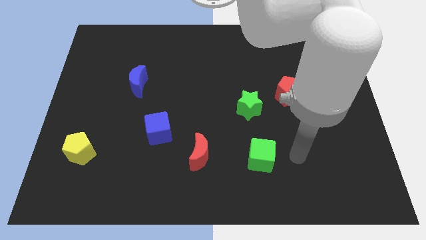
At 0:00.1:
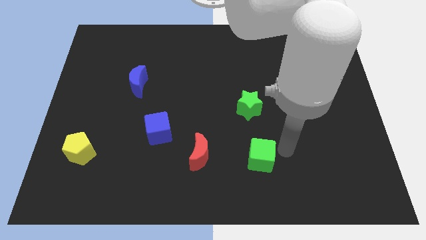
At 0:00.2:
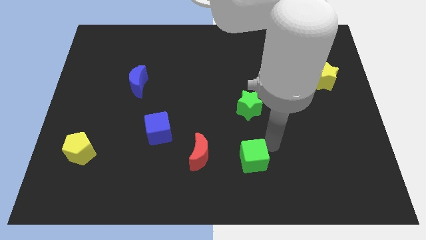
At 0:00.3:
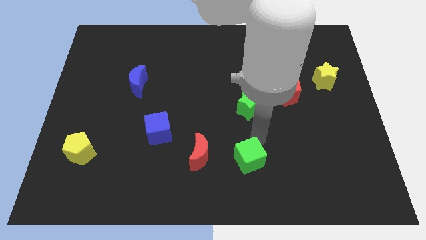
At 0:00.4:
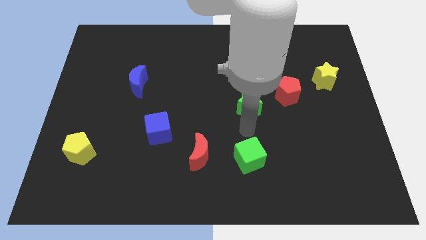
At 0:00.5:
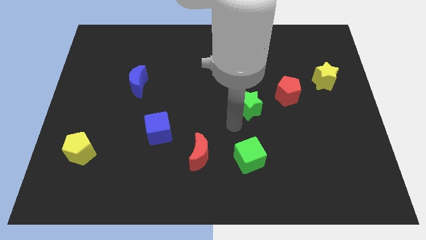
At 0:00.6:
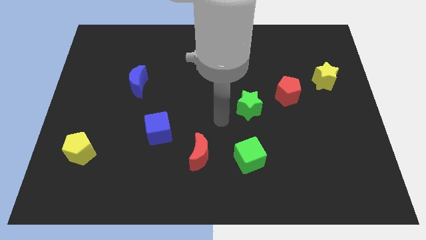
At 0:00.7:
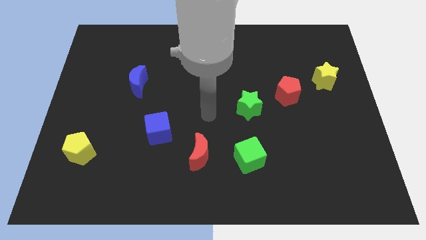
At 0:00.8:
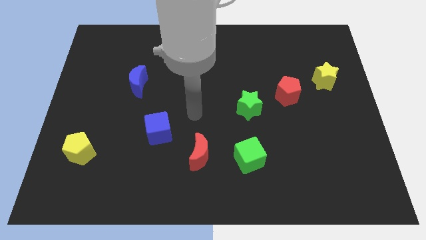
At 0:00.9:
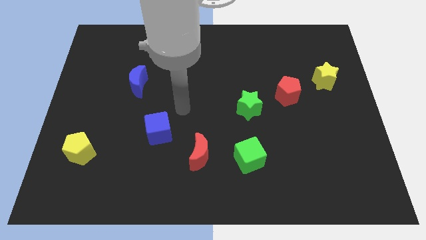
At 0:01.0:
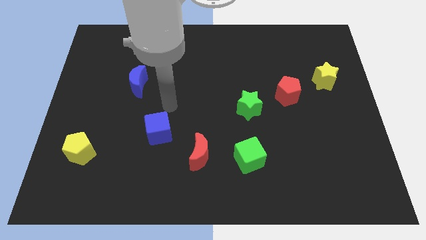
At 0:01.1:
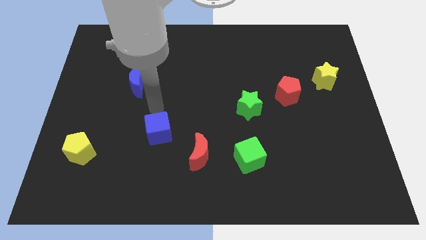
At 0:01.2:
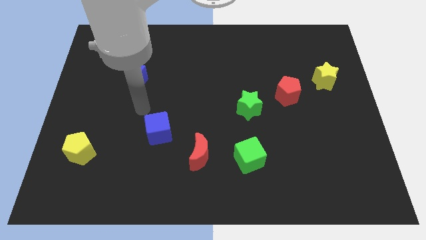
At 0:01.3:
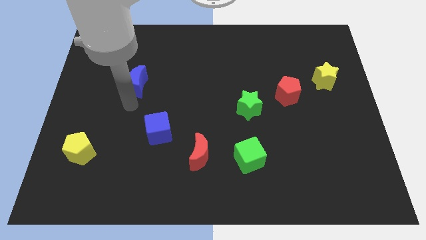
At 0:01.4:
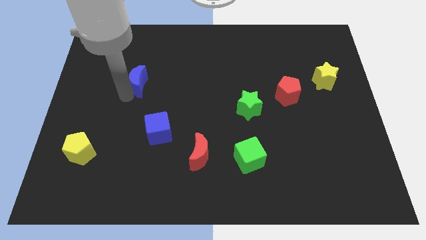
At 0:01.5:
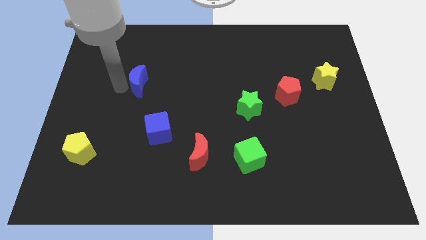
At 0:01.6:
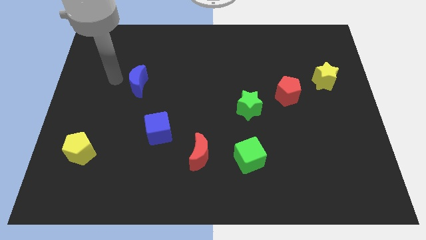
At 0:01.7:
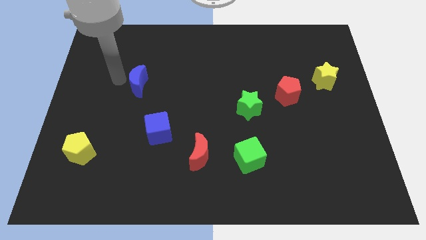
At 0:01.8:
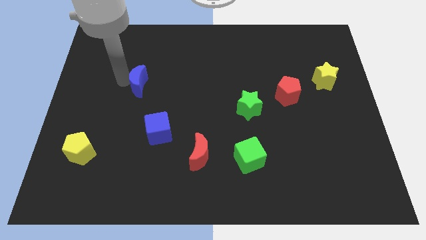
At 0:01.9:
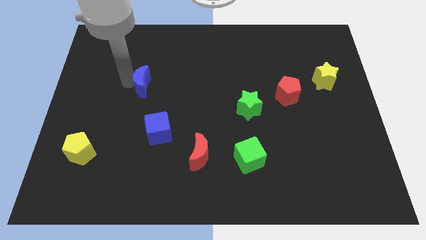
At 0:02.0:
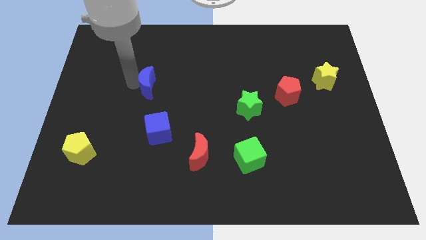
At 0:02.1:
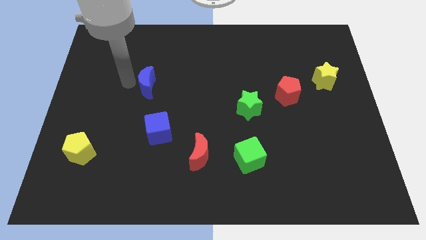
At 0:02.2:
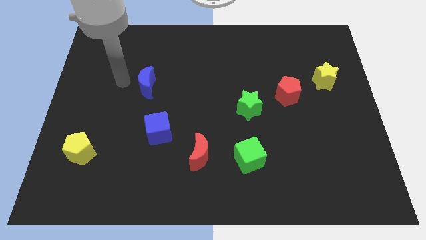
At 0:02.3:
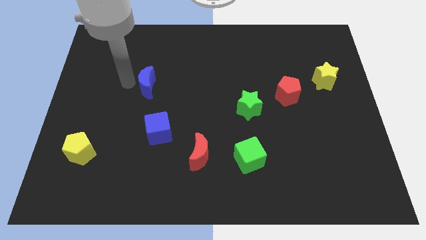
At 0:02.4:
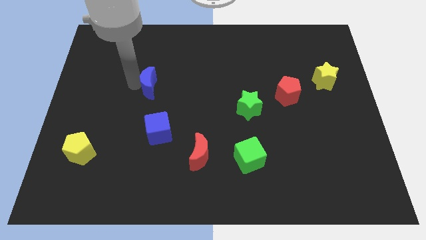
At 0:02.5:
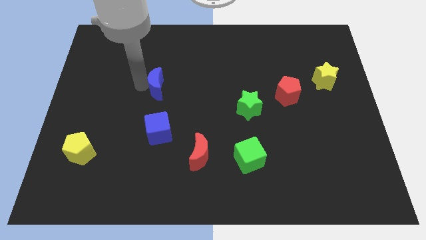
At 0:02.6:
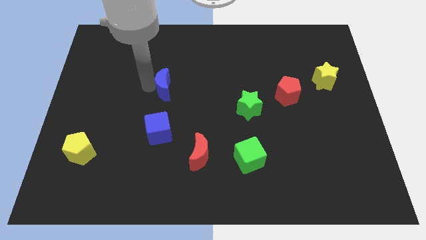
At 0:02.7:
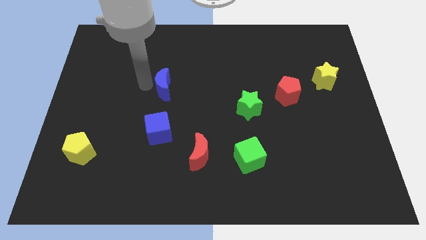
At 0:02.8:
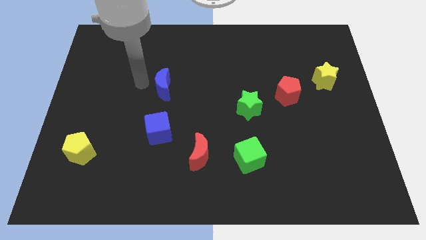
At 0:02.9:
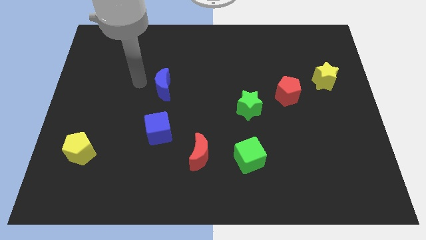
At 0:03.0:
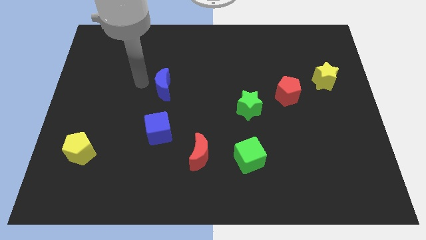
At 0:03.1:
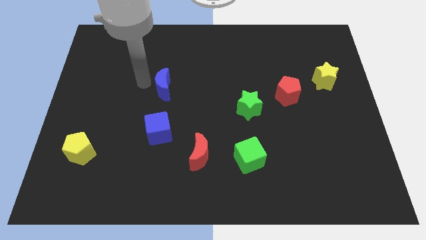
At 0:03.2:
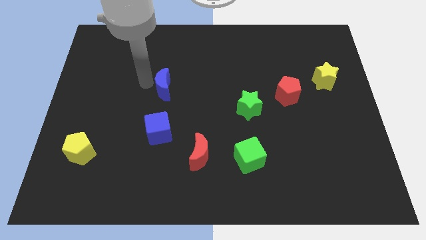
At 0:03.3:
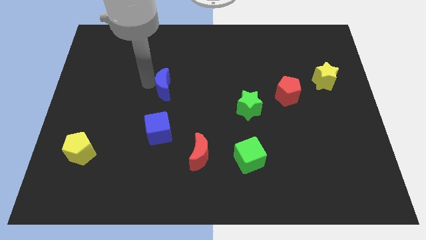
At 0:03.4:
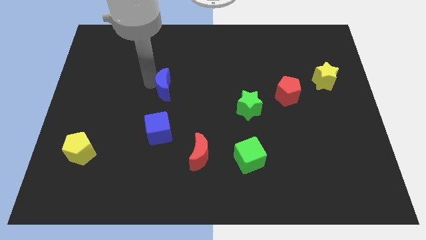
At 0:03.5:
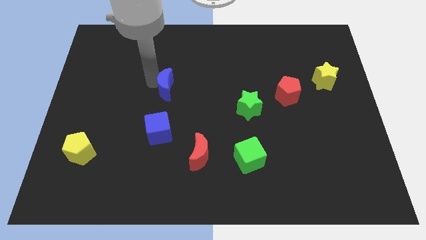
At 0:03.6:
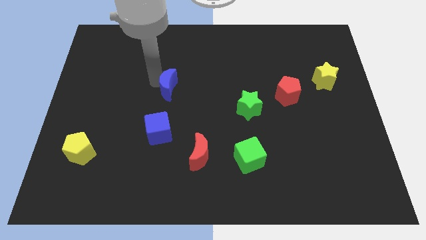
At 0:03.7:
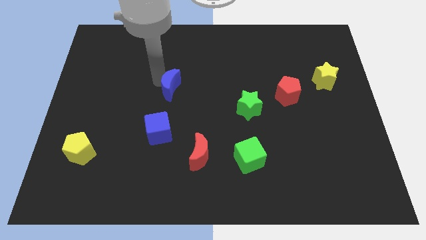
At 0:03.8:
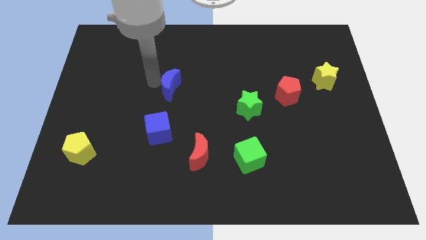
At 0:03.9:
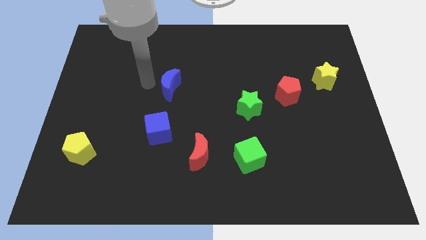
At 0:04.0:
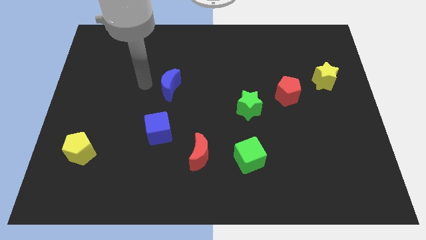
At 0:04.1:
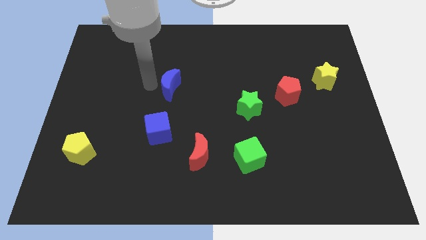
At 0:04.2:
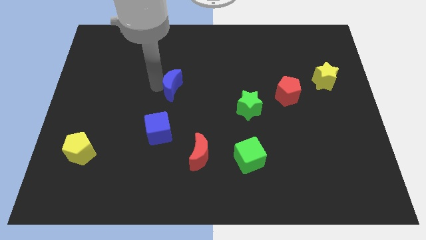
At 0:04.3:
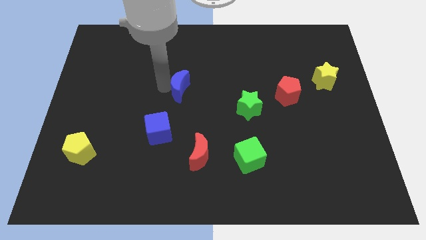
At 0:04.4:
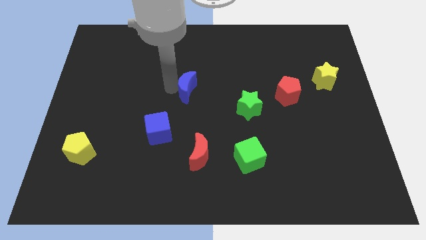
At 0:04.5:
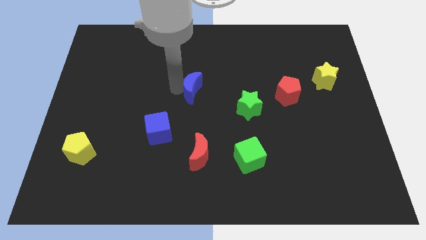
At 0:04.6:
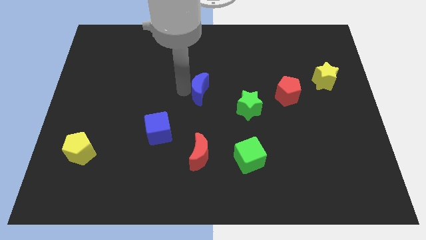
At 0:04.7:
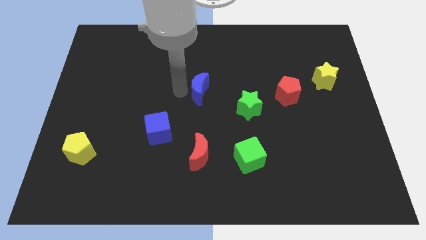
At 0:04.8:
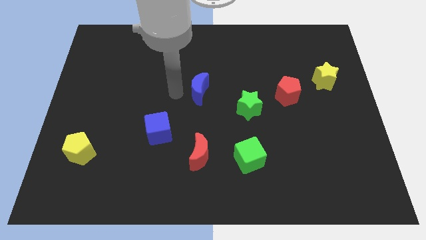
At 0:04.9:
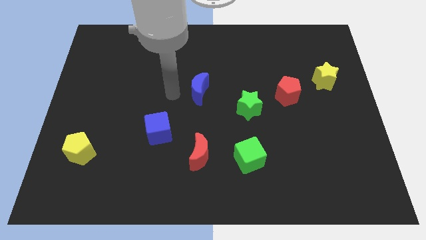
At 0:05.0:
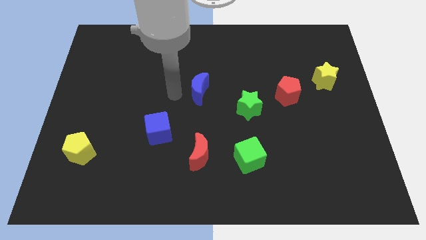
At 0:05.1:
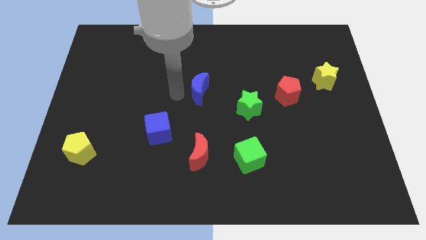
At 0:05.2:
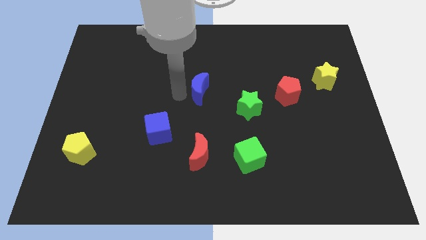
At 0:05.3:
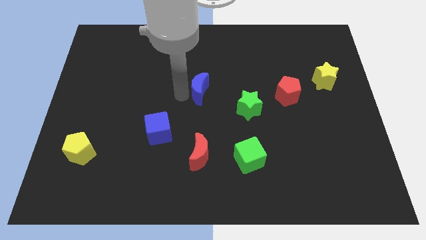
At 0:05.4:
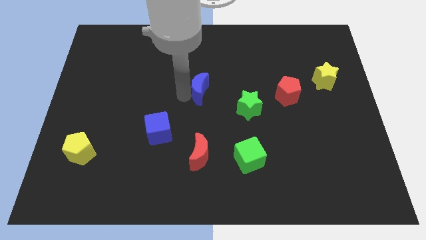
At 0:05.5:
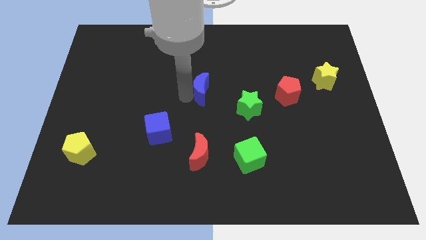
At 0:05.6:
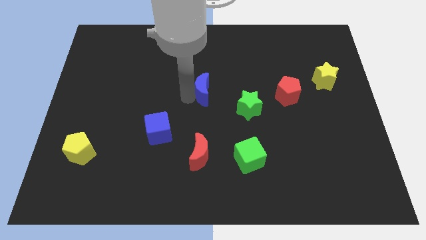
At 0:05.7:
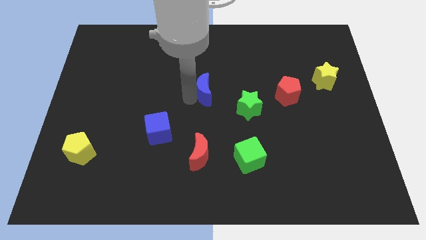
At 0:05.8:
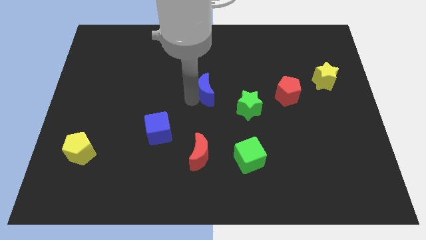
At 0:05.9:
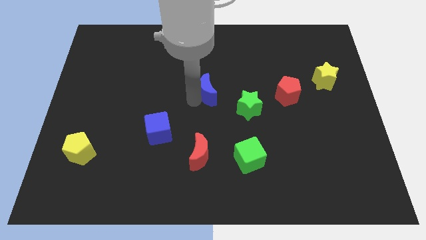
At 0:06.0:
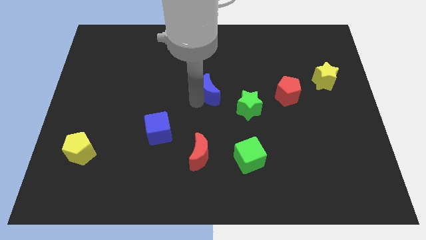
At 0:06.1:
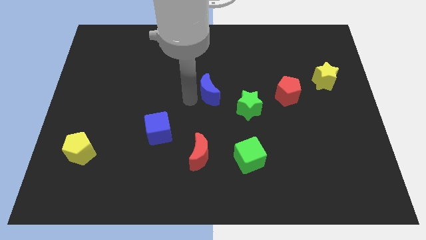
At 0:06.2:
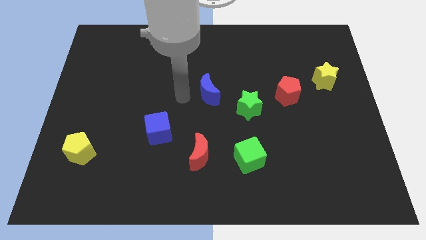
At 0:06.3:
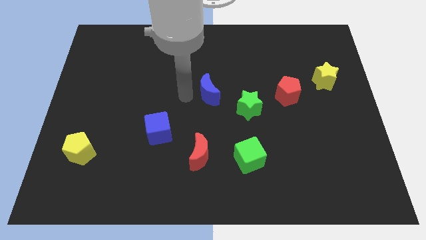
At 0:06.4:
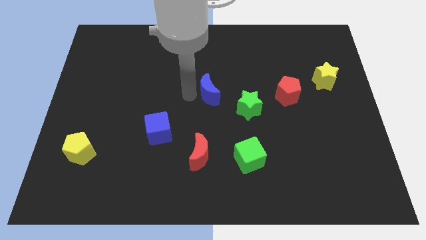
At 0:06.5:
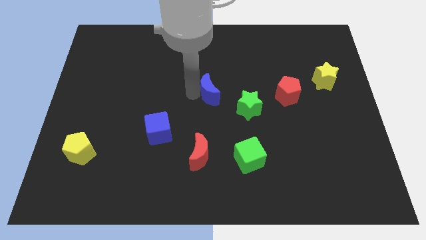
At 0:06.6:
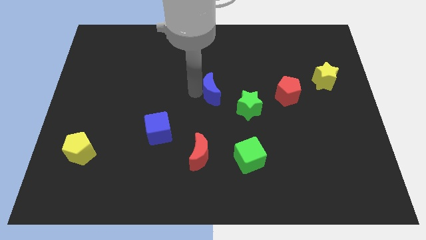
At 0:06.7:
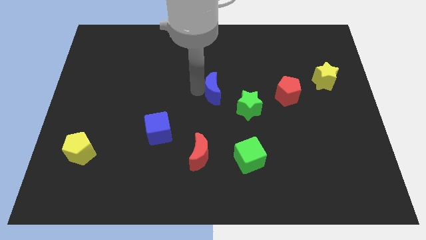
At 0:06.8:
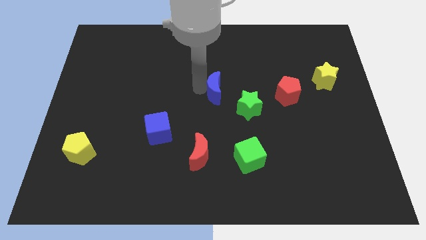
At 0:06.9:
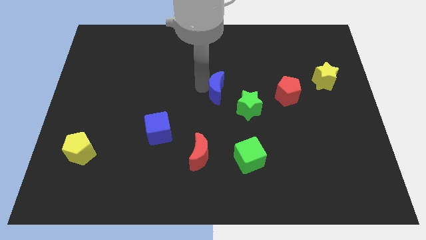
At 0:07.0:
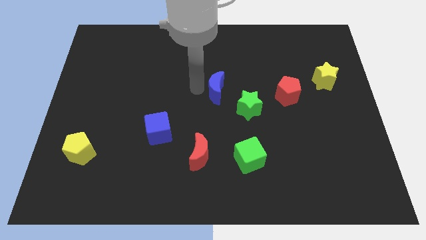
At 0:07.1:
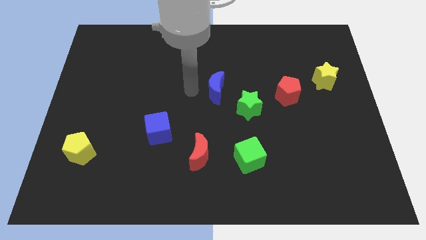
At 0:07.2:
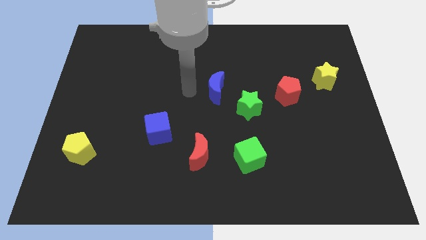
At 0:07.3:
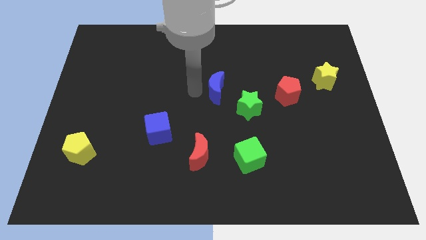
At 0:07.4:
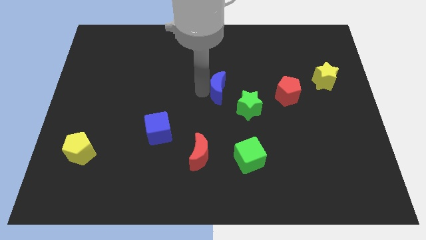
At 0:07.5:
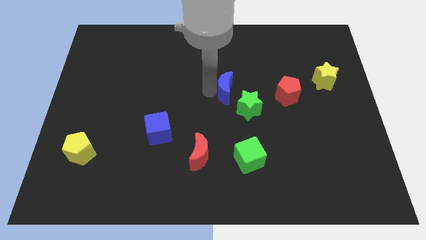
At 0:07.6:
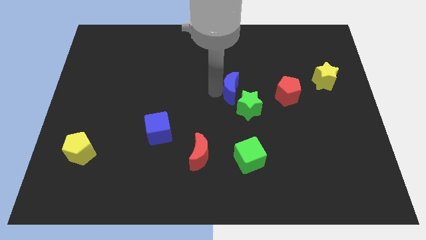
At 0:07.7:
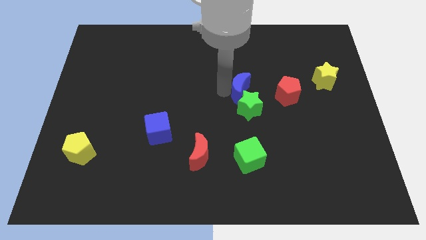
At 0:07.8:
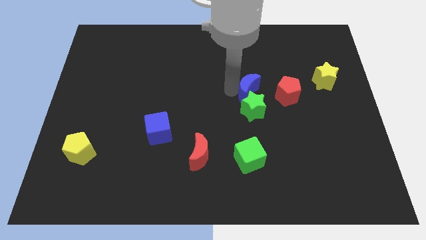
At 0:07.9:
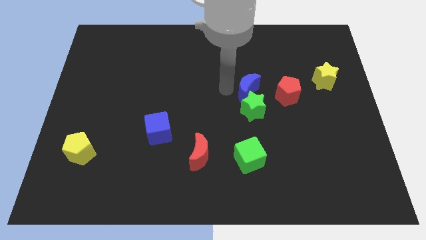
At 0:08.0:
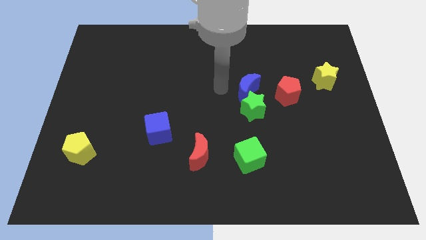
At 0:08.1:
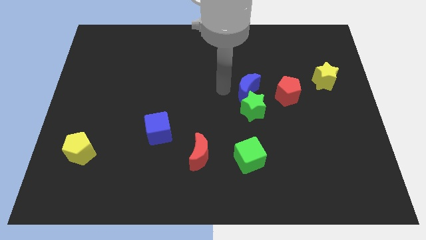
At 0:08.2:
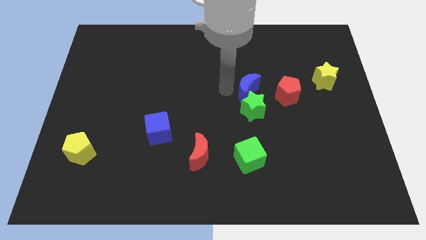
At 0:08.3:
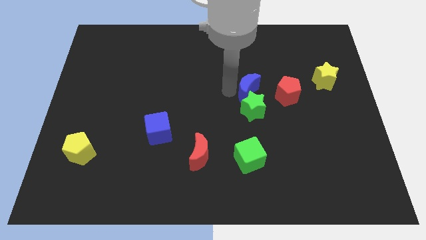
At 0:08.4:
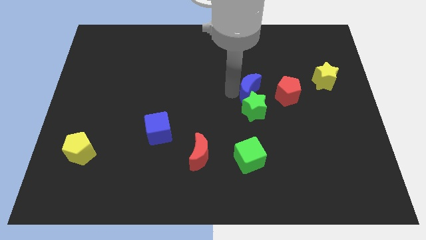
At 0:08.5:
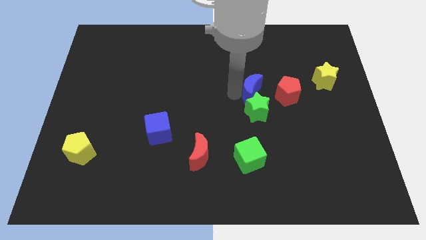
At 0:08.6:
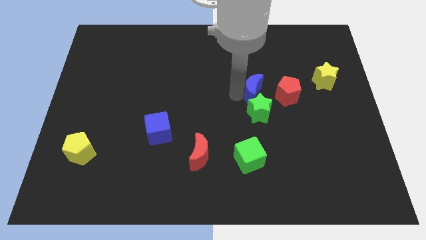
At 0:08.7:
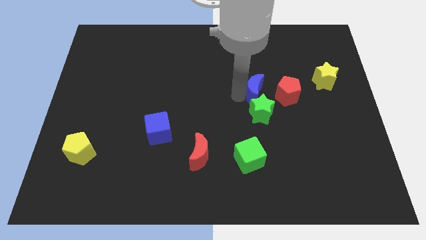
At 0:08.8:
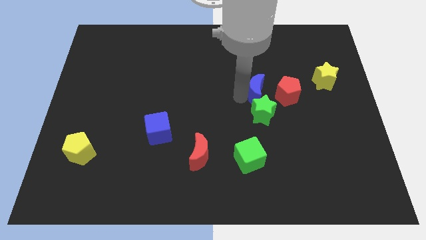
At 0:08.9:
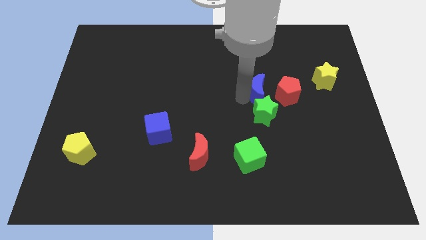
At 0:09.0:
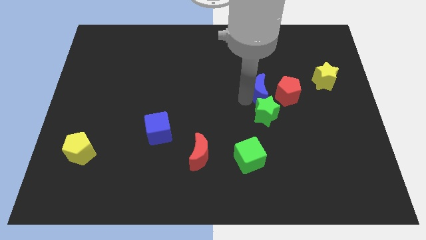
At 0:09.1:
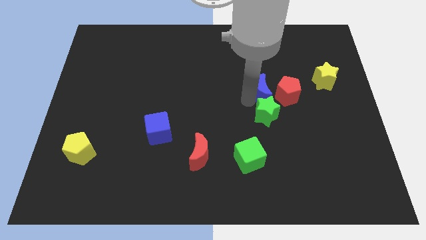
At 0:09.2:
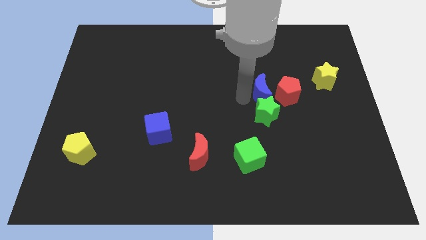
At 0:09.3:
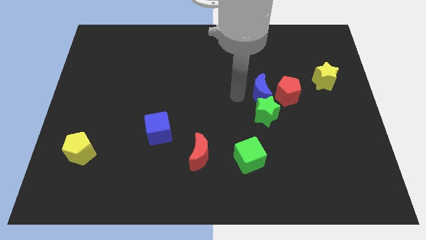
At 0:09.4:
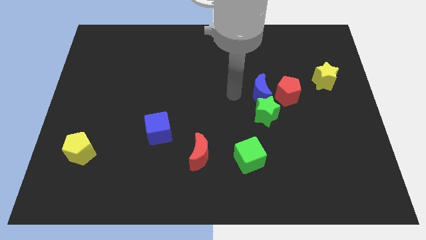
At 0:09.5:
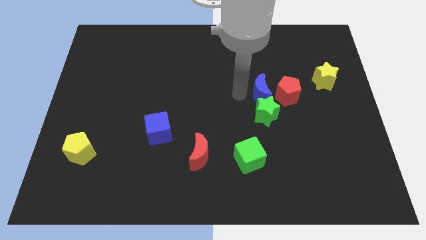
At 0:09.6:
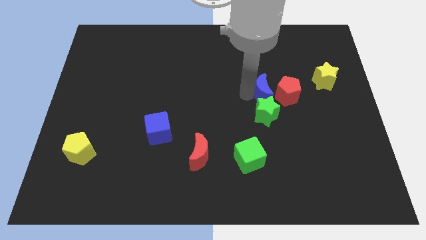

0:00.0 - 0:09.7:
push the blue moon towards the red pentagon
